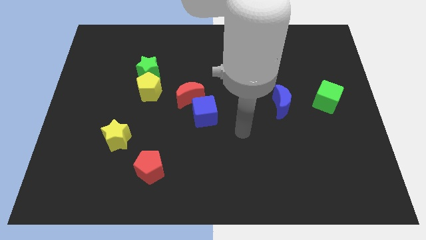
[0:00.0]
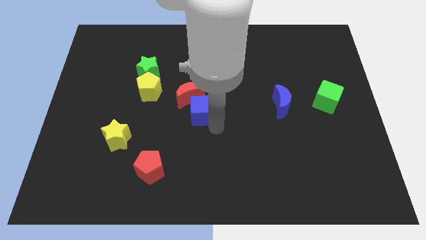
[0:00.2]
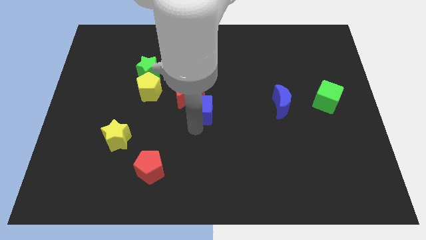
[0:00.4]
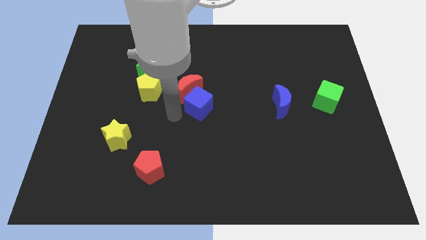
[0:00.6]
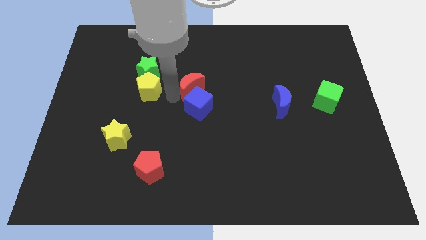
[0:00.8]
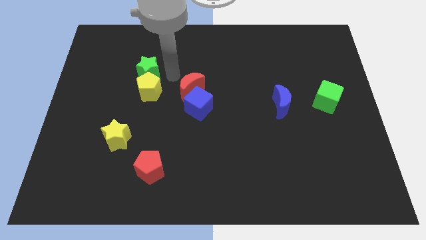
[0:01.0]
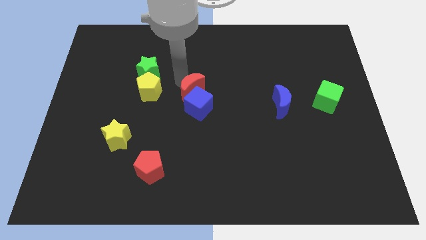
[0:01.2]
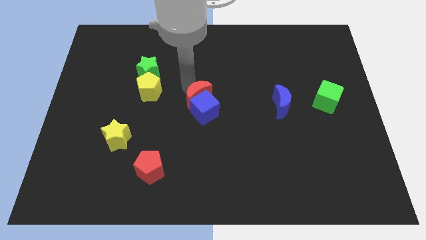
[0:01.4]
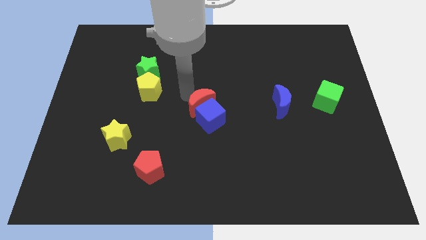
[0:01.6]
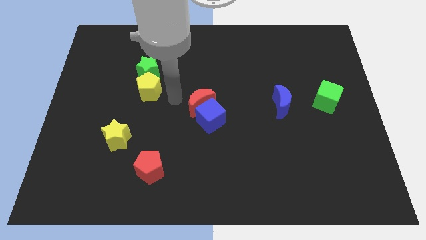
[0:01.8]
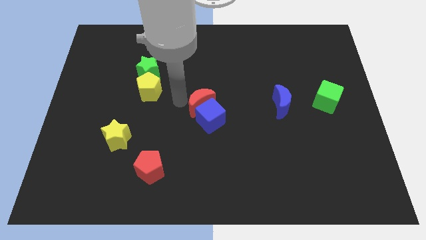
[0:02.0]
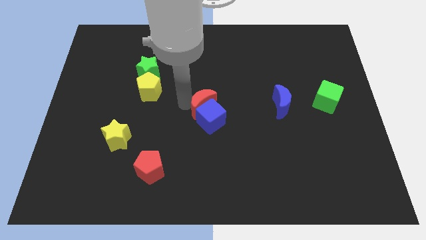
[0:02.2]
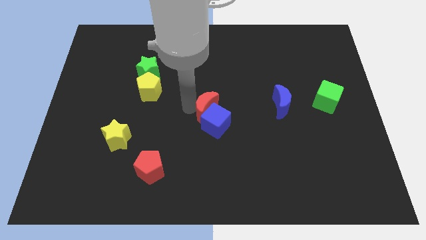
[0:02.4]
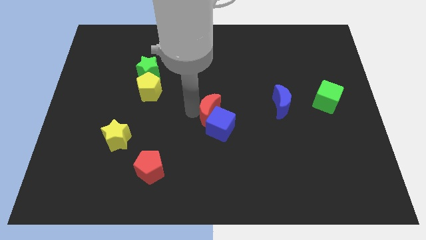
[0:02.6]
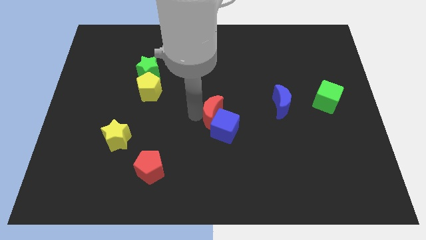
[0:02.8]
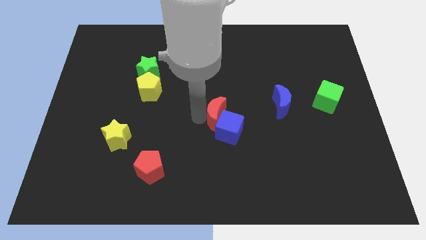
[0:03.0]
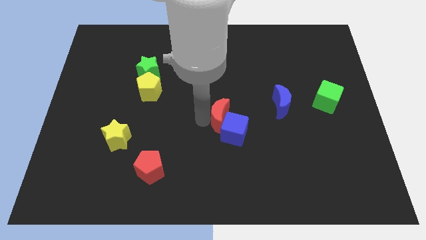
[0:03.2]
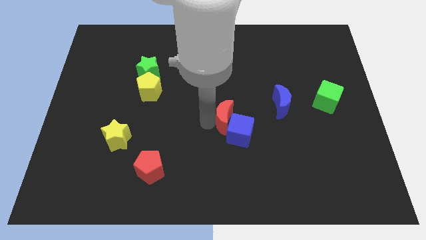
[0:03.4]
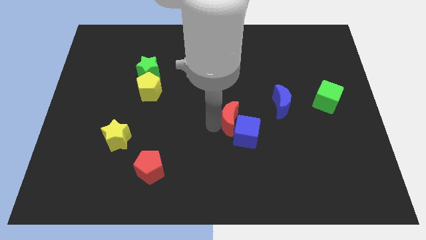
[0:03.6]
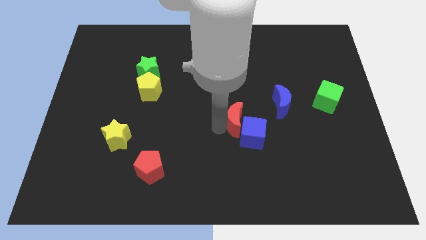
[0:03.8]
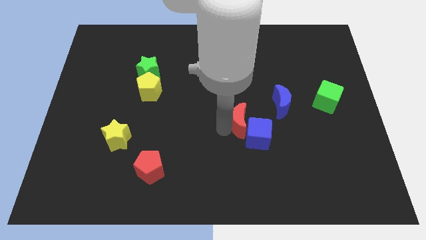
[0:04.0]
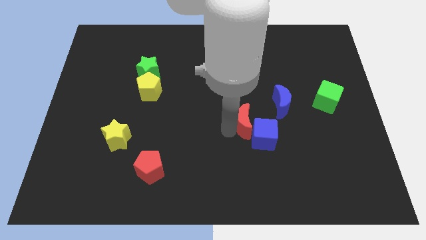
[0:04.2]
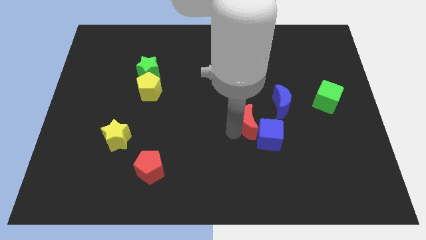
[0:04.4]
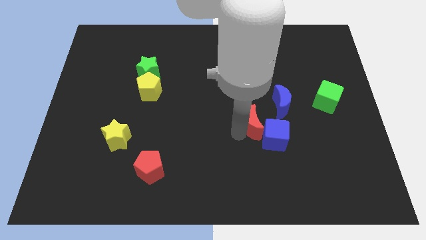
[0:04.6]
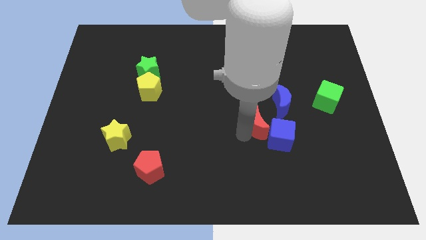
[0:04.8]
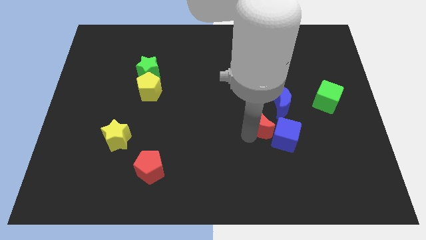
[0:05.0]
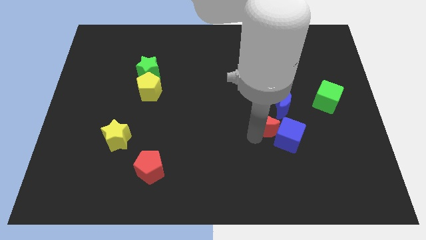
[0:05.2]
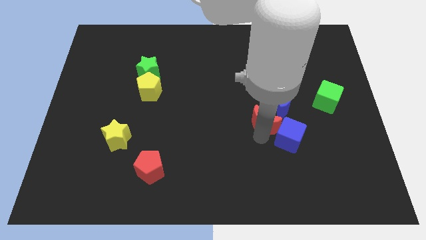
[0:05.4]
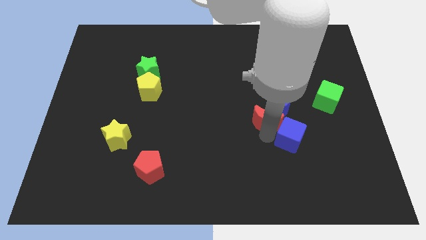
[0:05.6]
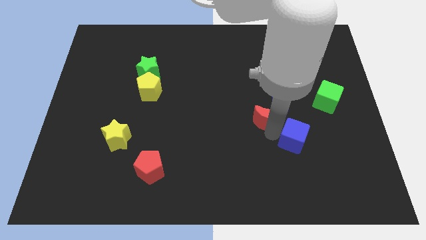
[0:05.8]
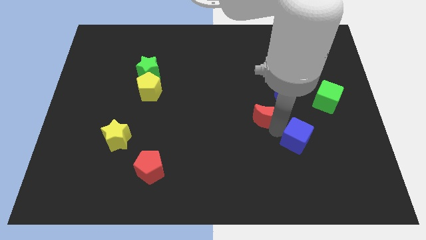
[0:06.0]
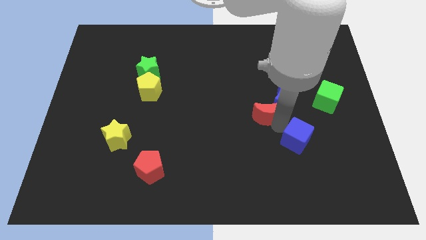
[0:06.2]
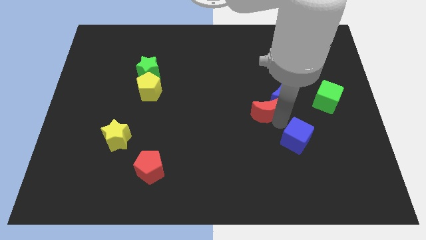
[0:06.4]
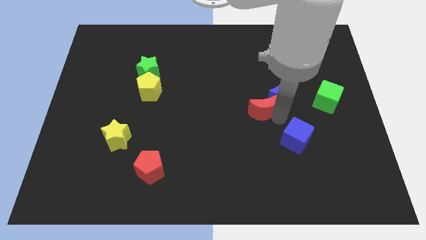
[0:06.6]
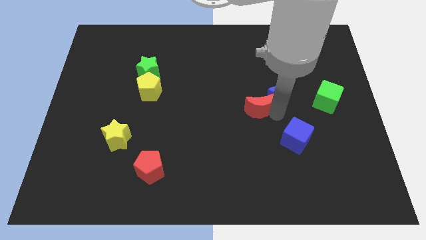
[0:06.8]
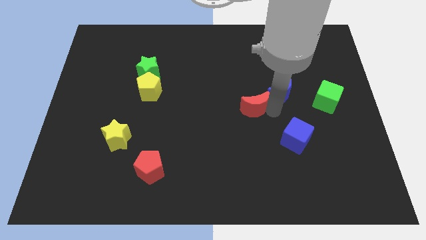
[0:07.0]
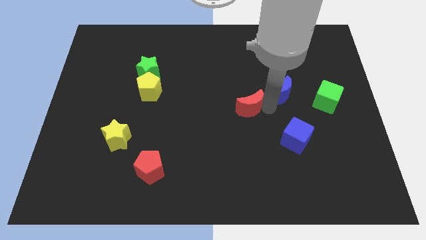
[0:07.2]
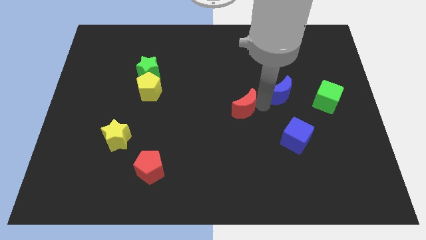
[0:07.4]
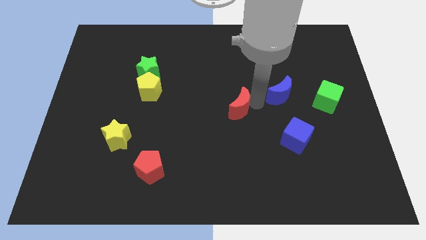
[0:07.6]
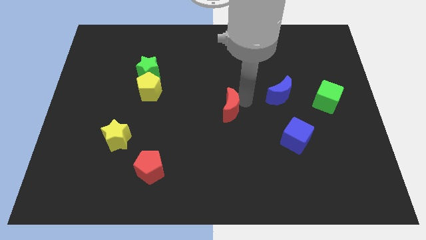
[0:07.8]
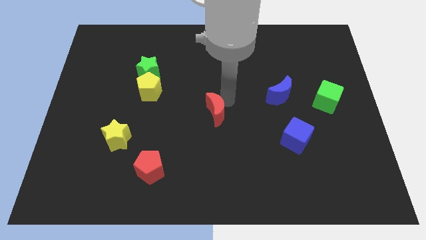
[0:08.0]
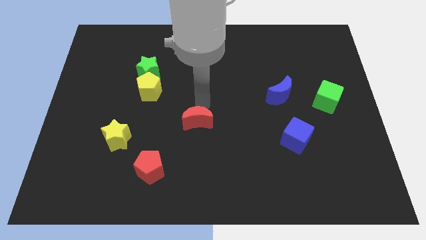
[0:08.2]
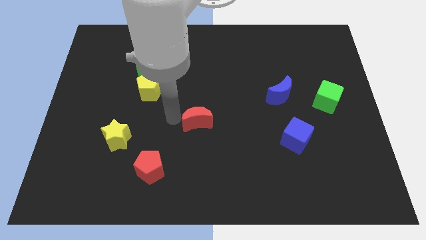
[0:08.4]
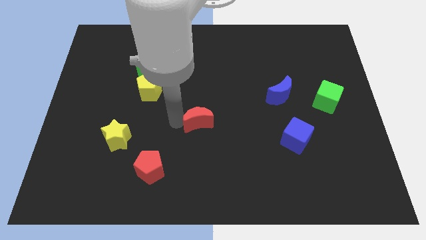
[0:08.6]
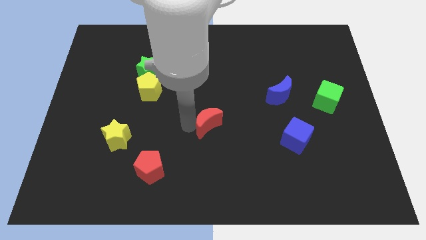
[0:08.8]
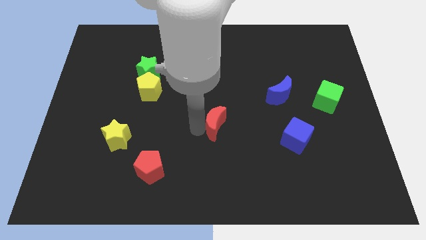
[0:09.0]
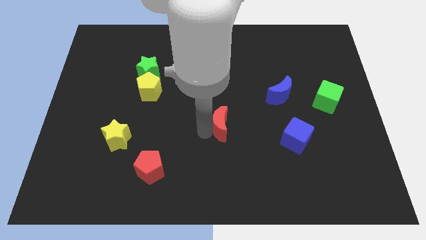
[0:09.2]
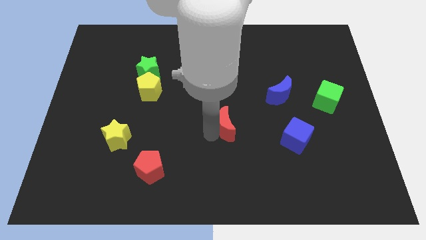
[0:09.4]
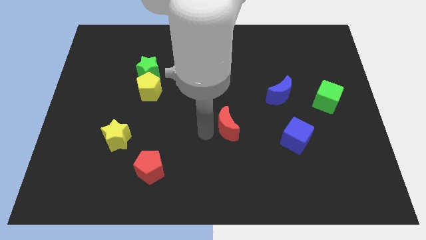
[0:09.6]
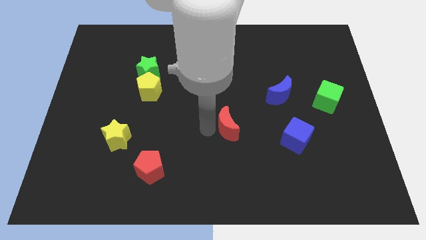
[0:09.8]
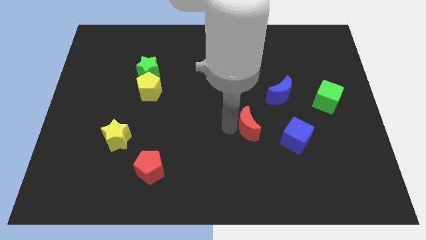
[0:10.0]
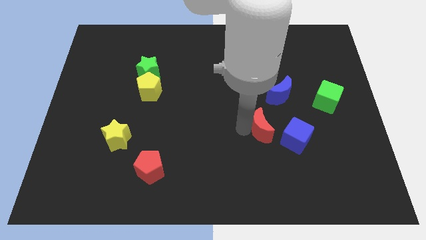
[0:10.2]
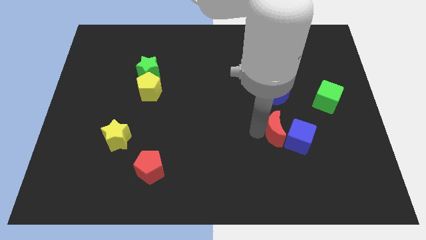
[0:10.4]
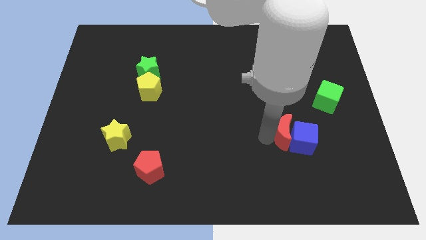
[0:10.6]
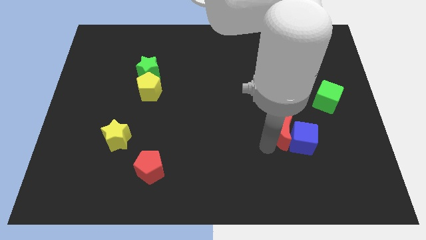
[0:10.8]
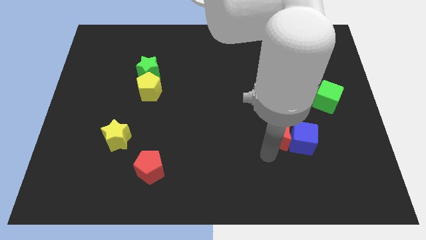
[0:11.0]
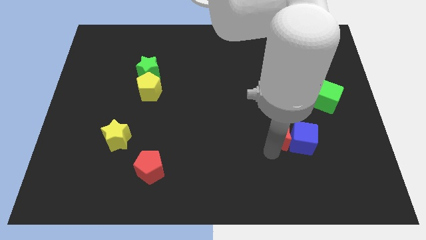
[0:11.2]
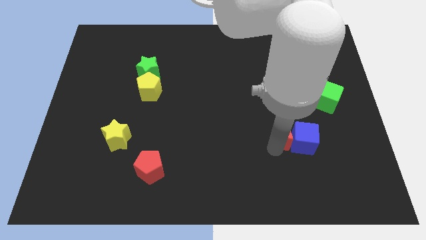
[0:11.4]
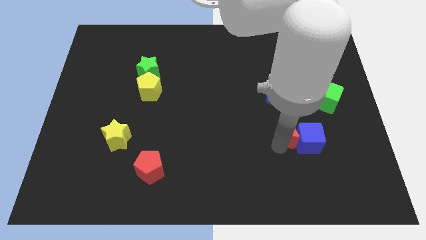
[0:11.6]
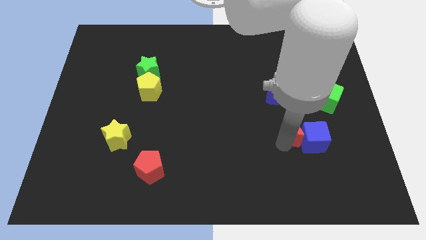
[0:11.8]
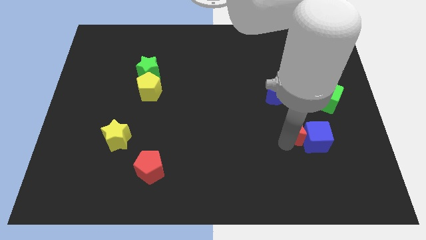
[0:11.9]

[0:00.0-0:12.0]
push the red moon diagonally down and to the left of the green cube

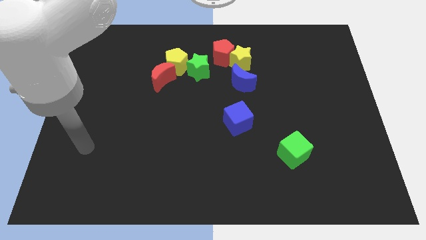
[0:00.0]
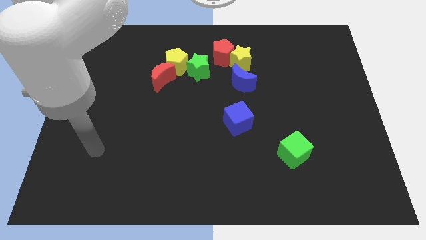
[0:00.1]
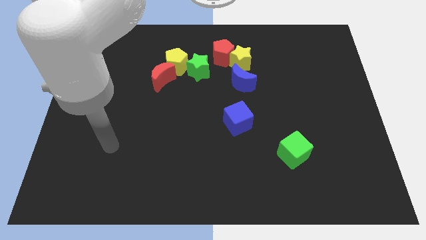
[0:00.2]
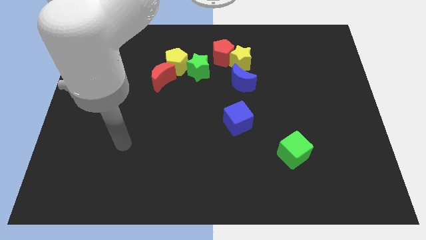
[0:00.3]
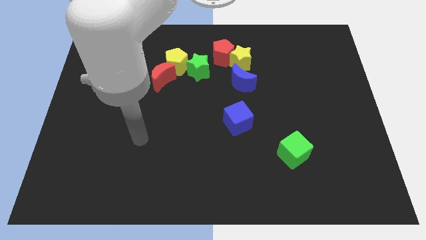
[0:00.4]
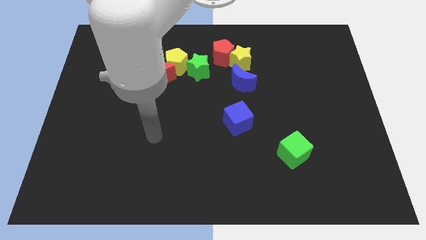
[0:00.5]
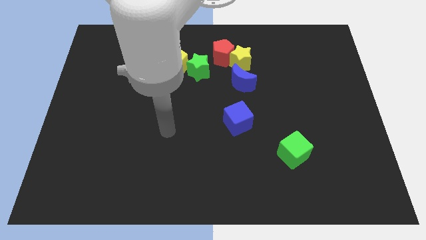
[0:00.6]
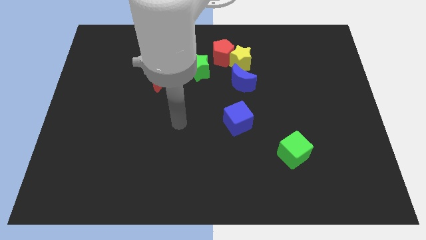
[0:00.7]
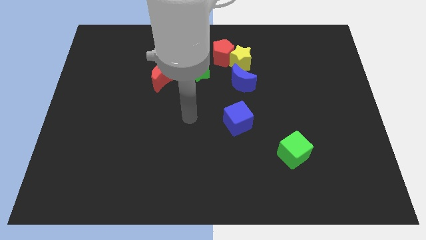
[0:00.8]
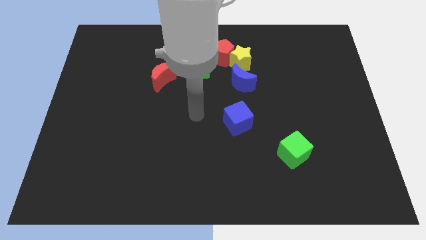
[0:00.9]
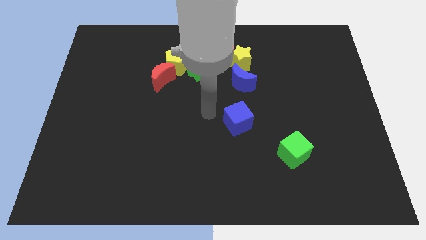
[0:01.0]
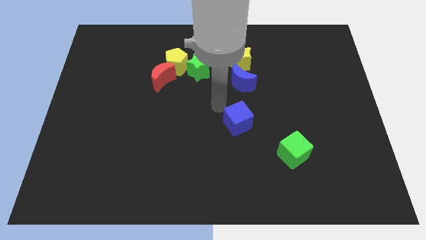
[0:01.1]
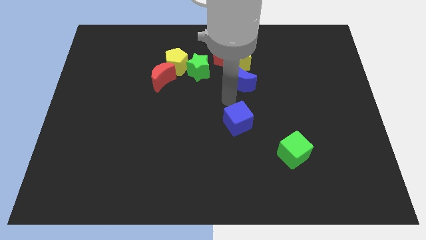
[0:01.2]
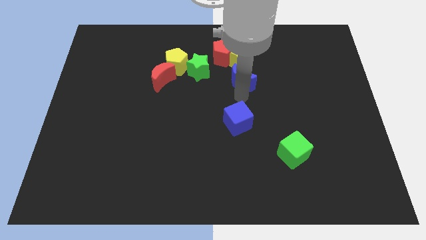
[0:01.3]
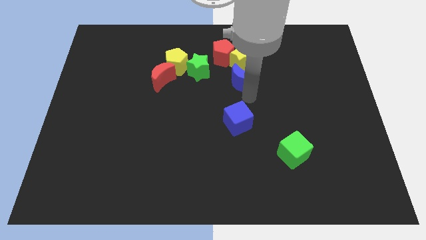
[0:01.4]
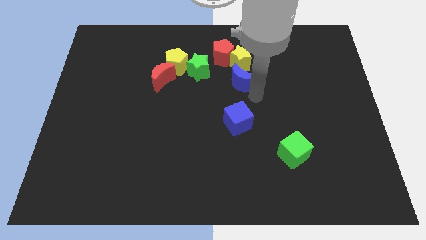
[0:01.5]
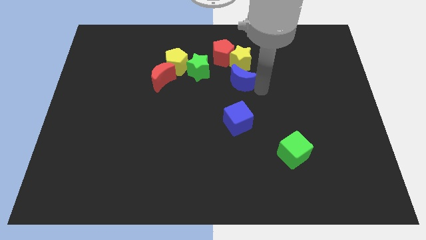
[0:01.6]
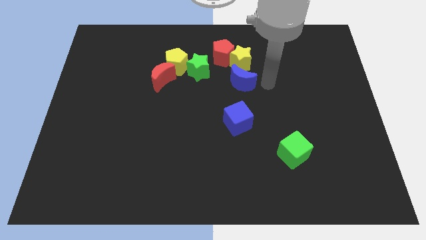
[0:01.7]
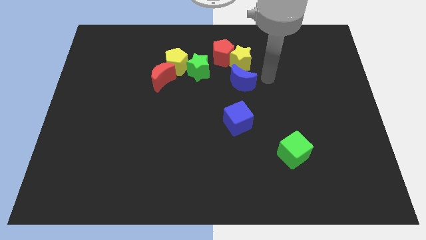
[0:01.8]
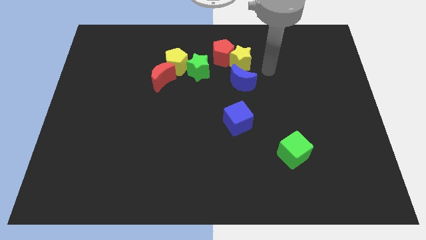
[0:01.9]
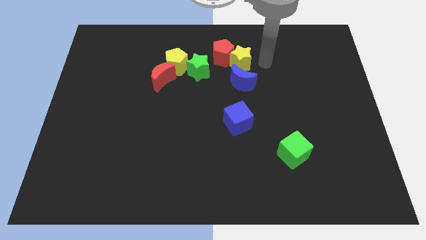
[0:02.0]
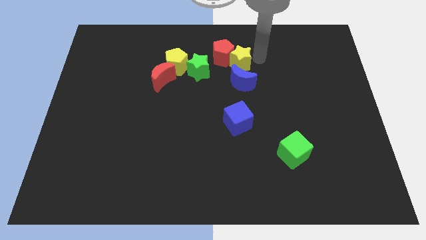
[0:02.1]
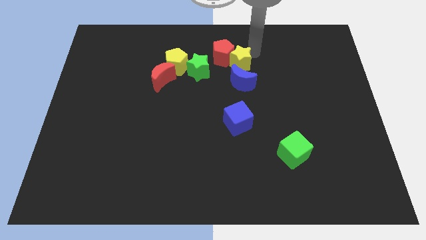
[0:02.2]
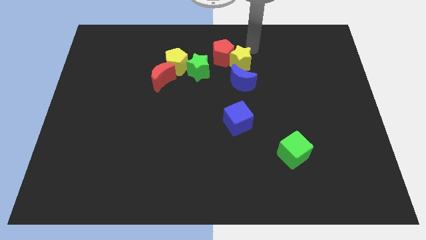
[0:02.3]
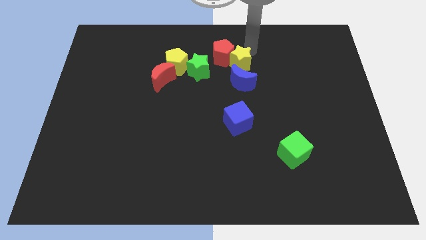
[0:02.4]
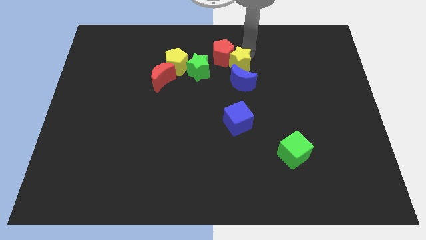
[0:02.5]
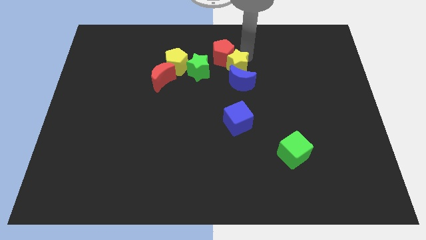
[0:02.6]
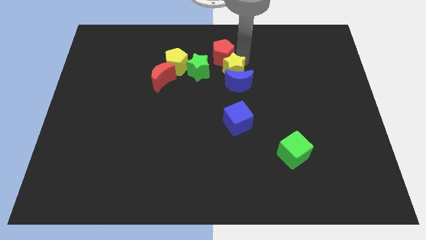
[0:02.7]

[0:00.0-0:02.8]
put the yellow star above the blue cube
